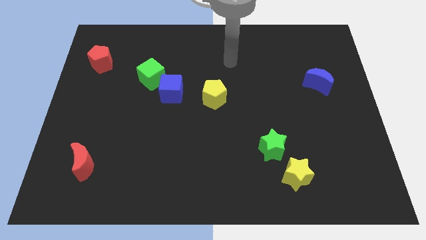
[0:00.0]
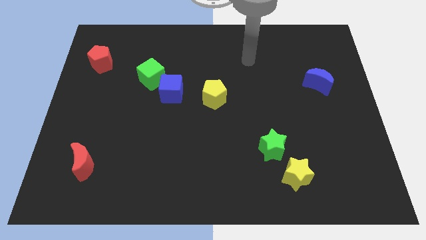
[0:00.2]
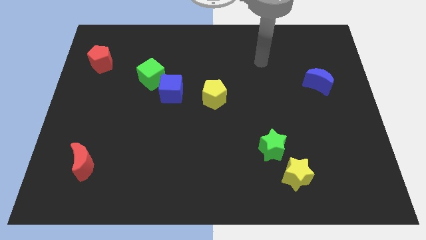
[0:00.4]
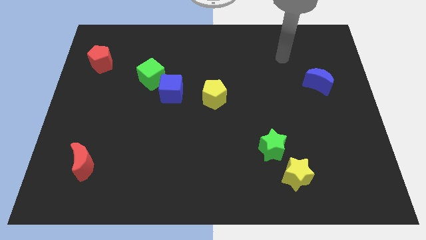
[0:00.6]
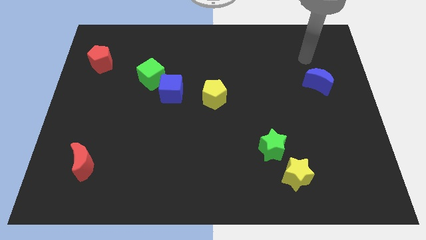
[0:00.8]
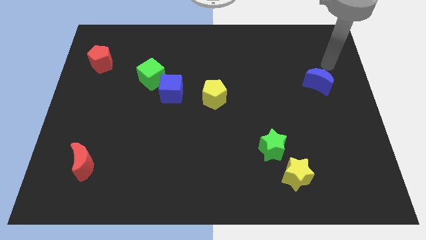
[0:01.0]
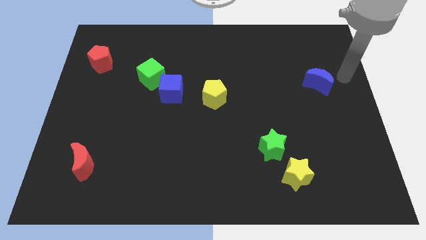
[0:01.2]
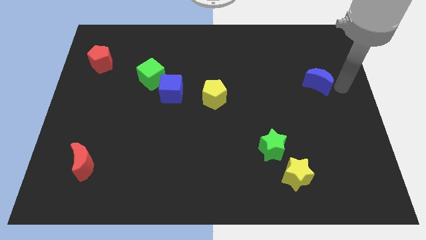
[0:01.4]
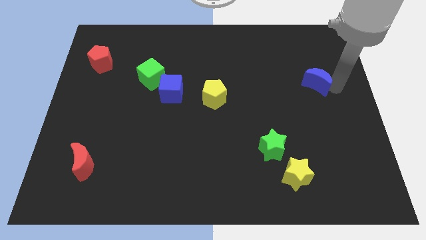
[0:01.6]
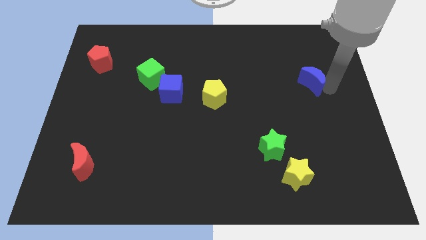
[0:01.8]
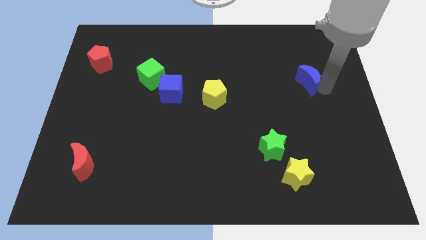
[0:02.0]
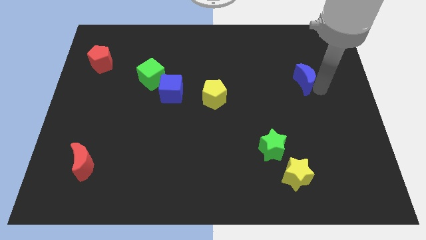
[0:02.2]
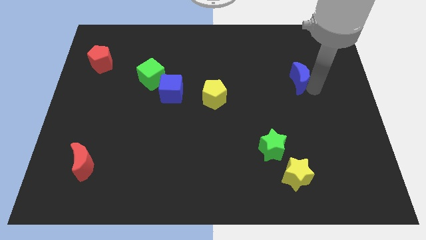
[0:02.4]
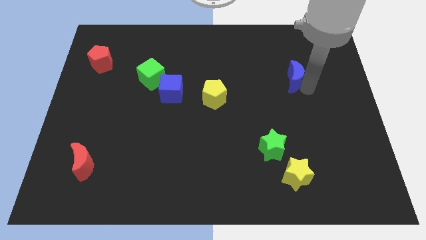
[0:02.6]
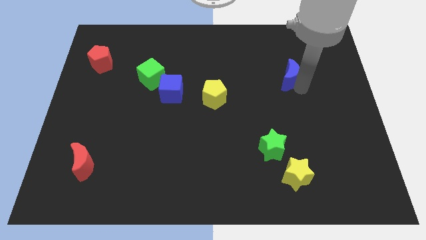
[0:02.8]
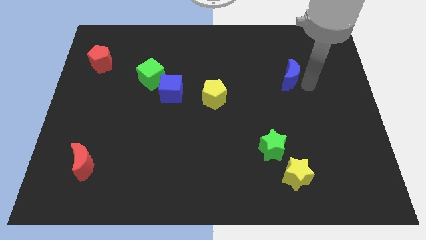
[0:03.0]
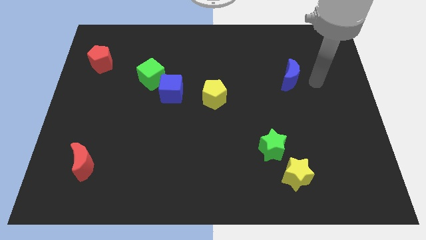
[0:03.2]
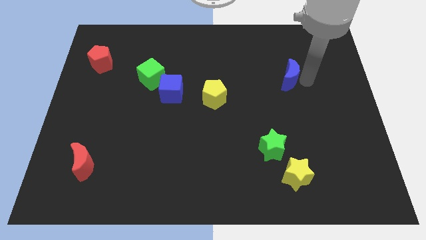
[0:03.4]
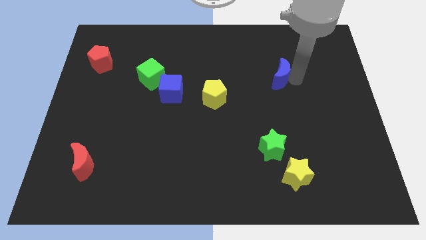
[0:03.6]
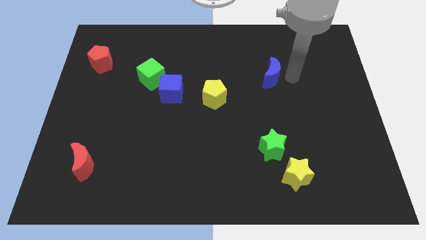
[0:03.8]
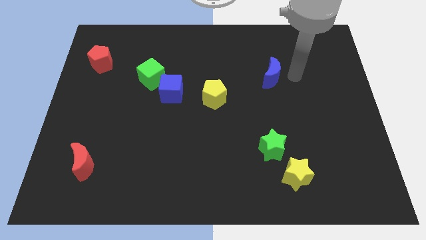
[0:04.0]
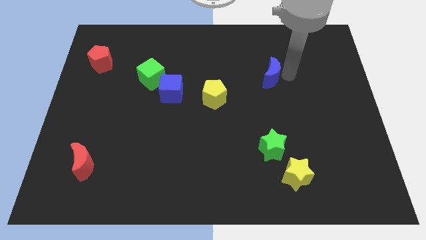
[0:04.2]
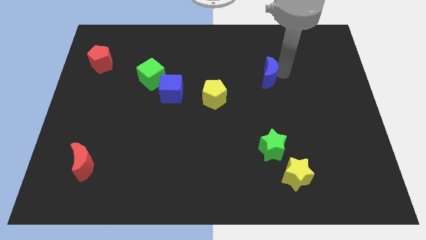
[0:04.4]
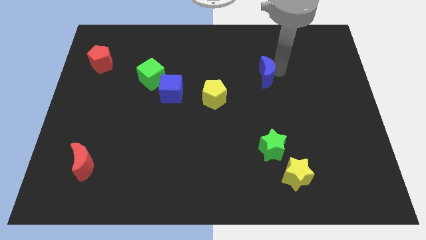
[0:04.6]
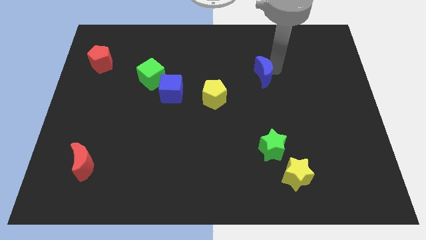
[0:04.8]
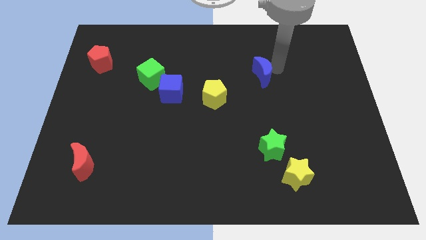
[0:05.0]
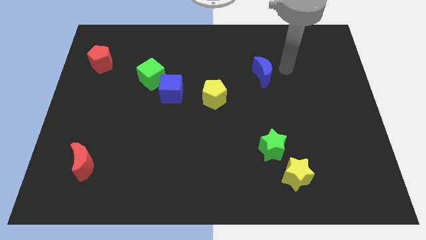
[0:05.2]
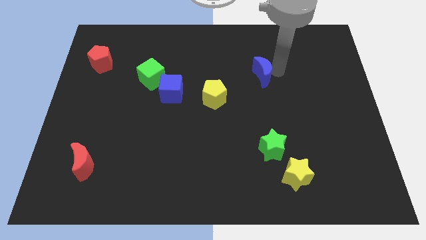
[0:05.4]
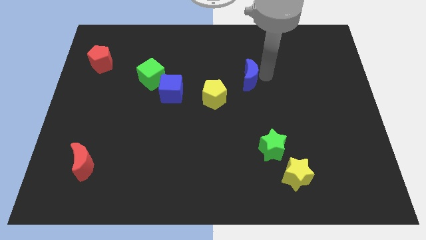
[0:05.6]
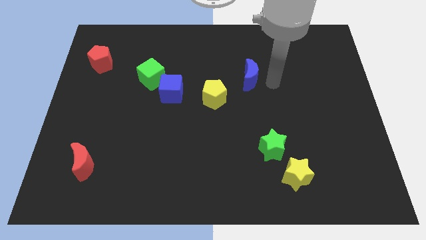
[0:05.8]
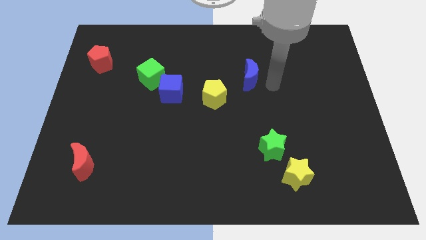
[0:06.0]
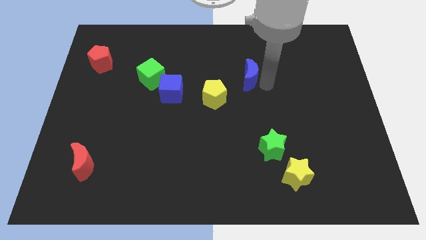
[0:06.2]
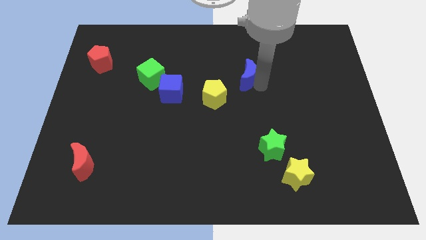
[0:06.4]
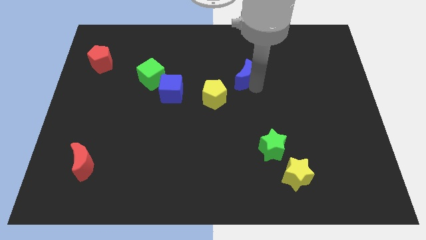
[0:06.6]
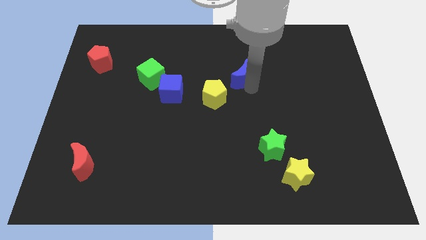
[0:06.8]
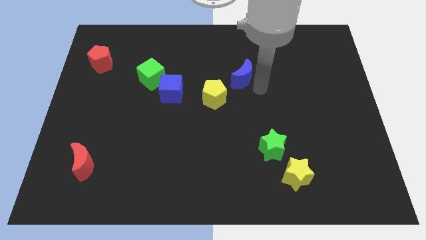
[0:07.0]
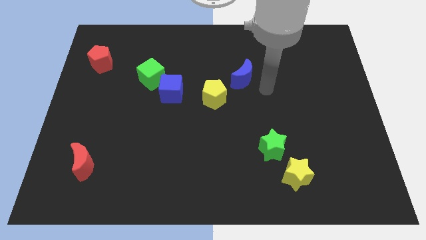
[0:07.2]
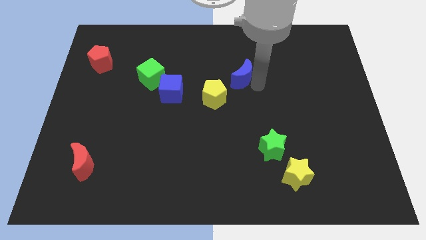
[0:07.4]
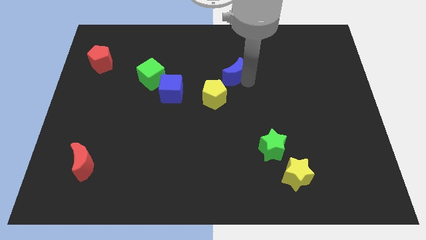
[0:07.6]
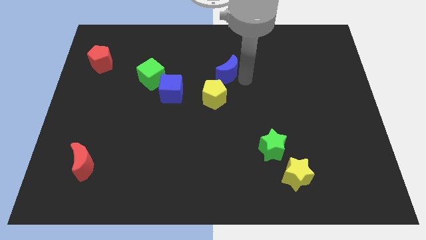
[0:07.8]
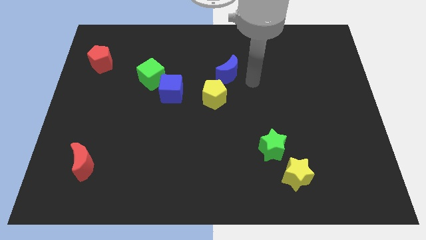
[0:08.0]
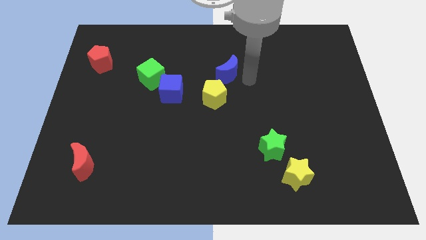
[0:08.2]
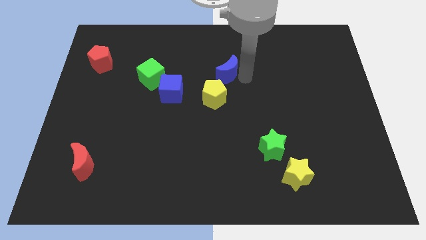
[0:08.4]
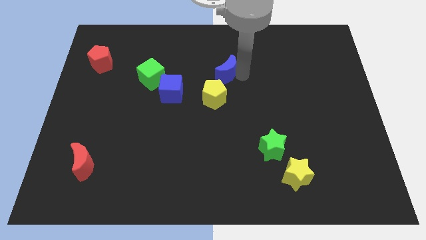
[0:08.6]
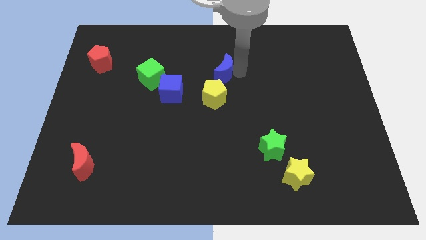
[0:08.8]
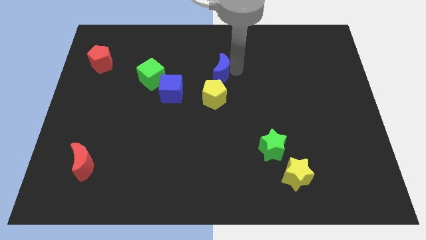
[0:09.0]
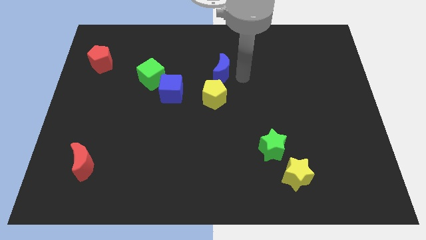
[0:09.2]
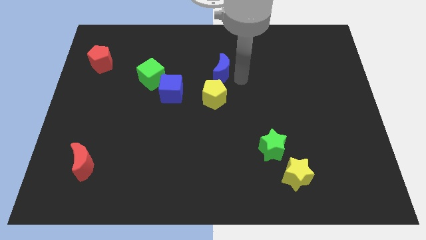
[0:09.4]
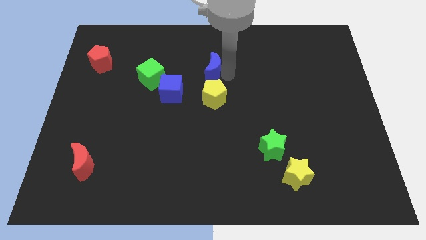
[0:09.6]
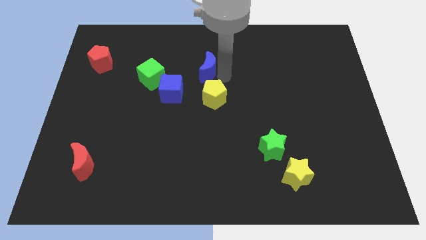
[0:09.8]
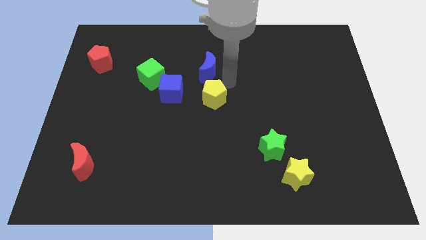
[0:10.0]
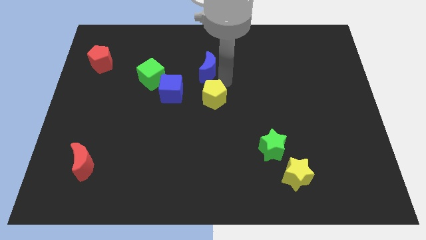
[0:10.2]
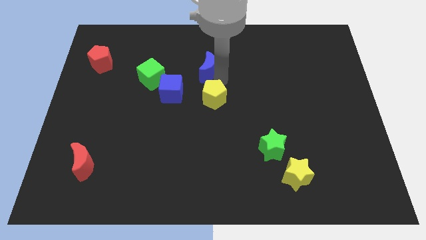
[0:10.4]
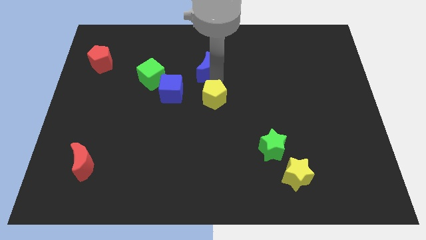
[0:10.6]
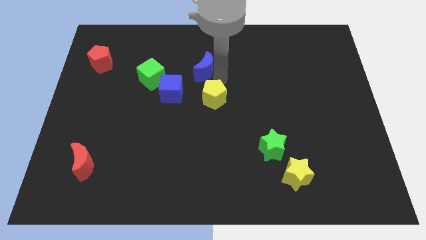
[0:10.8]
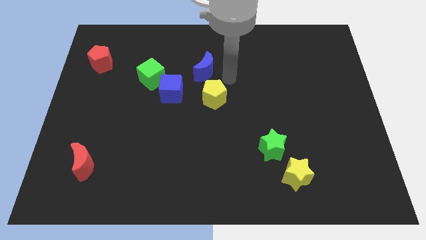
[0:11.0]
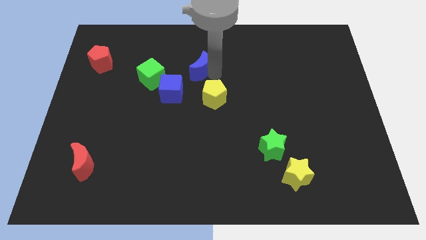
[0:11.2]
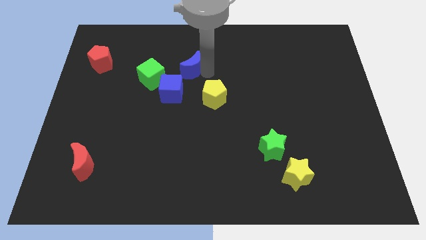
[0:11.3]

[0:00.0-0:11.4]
put the blue moon above the blue cube

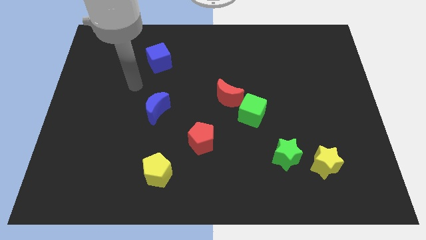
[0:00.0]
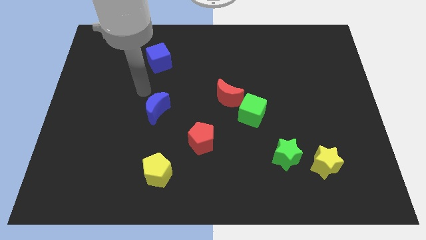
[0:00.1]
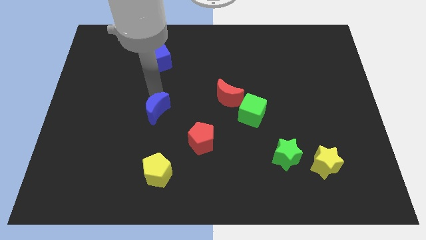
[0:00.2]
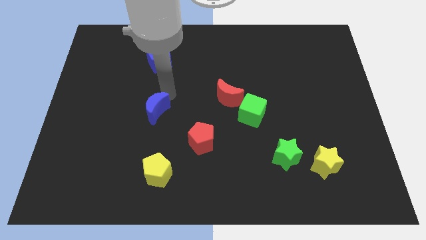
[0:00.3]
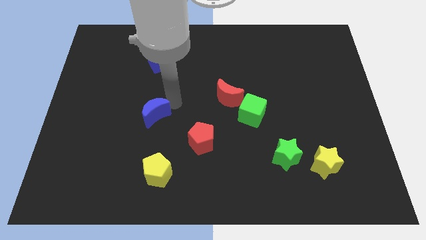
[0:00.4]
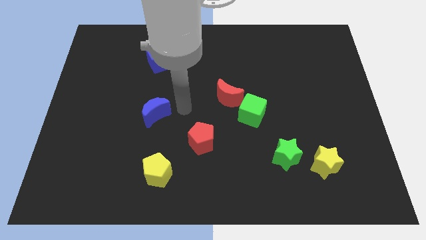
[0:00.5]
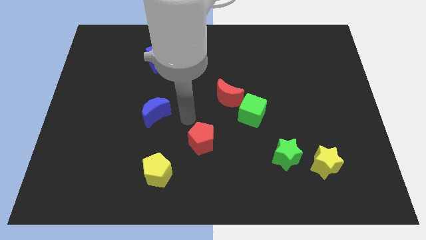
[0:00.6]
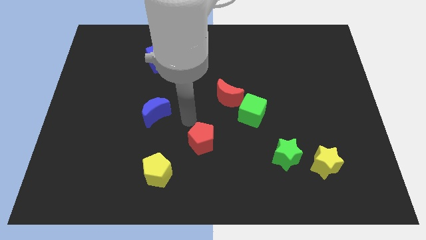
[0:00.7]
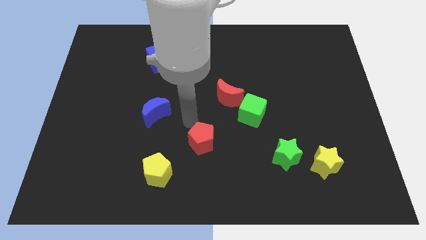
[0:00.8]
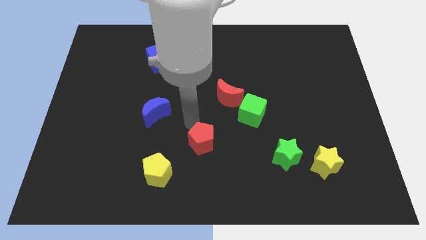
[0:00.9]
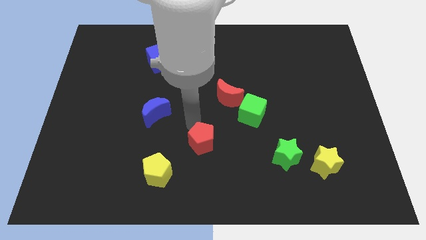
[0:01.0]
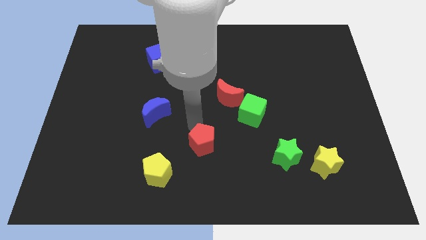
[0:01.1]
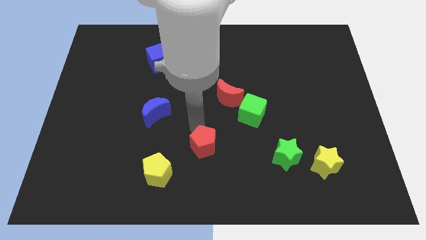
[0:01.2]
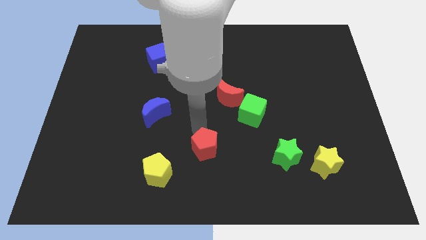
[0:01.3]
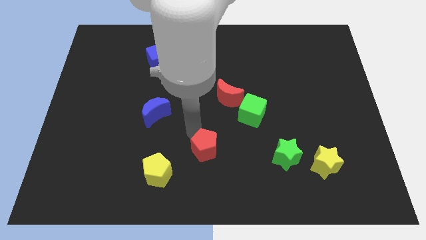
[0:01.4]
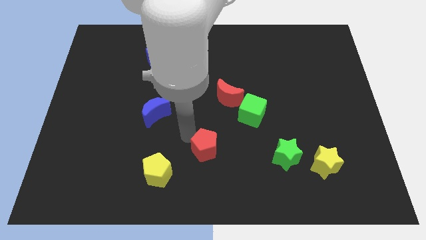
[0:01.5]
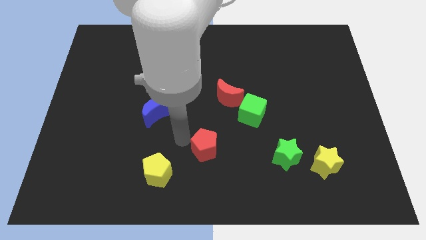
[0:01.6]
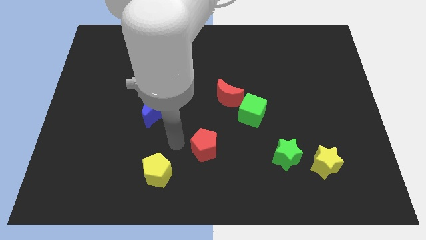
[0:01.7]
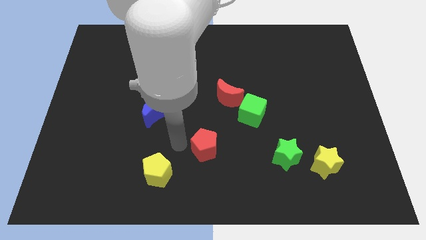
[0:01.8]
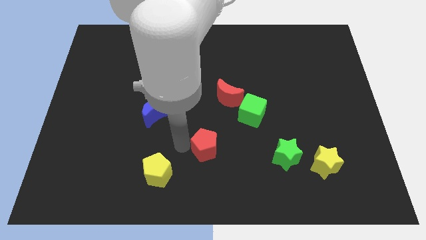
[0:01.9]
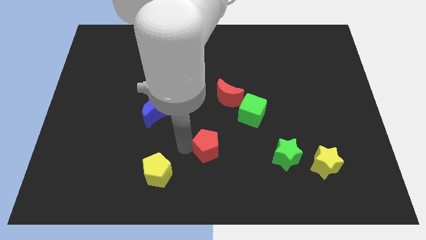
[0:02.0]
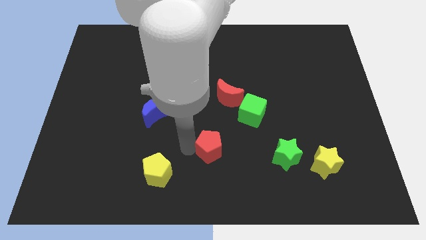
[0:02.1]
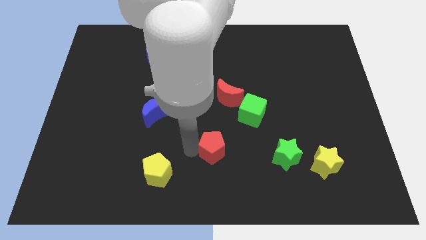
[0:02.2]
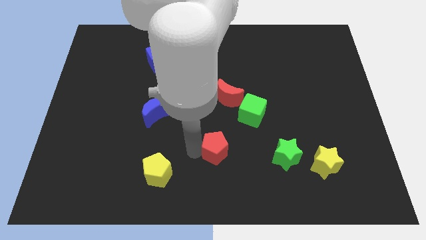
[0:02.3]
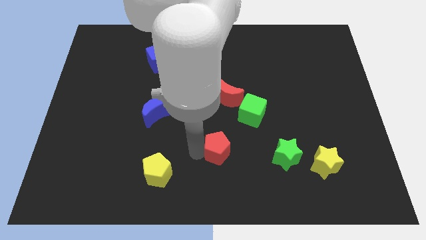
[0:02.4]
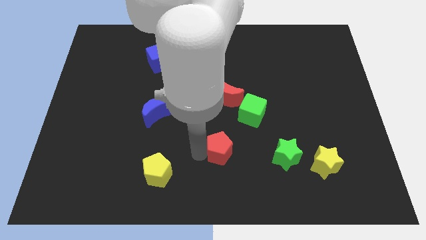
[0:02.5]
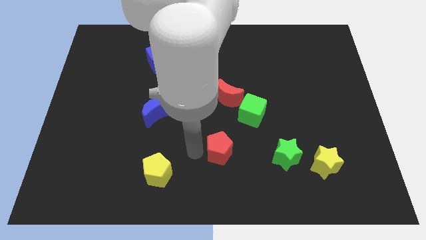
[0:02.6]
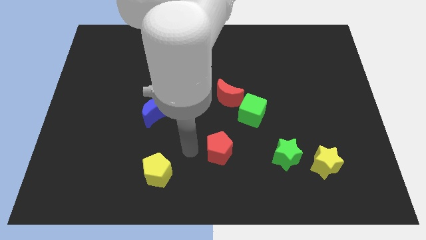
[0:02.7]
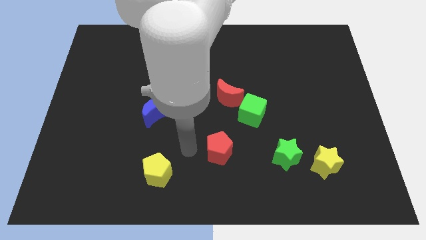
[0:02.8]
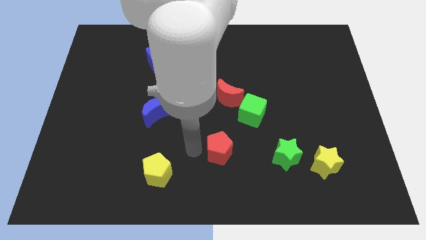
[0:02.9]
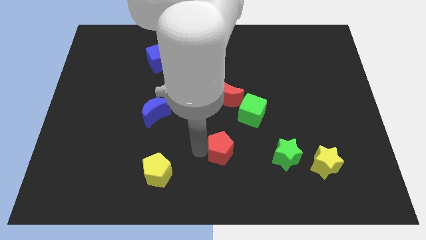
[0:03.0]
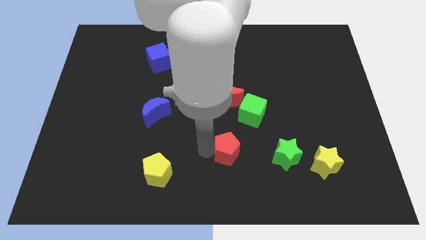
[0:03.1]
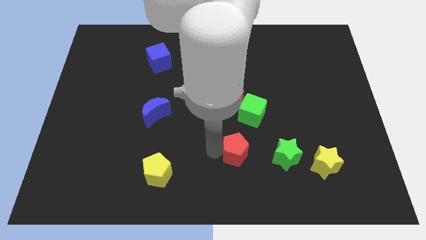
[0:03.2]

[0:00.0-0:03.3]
move the red pentagon to the bottom side of the green cube
